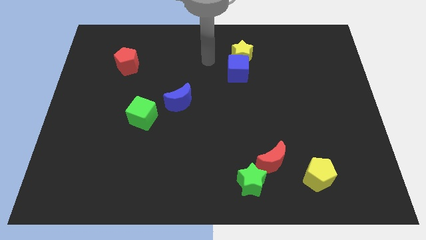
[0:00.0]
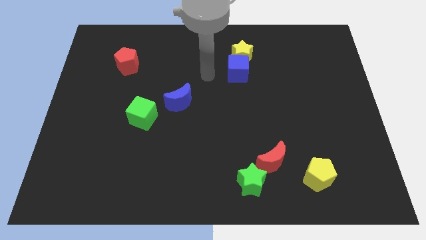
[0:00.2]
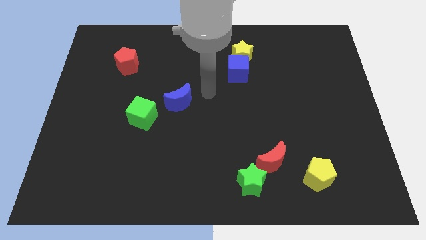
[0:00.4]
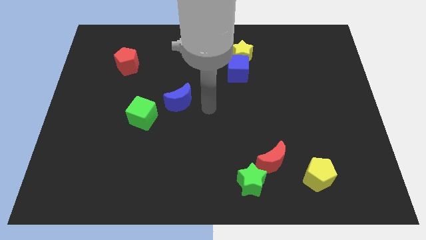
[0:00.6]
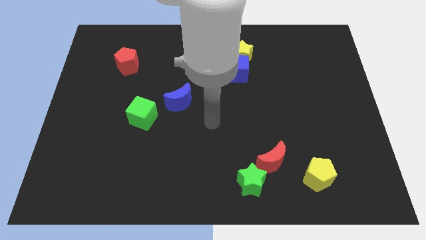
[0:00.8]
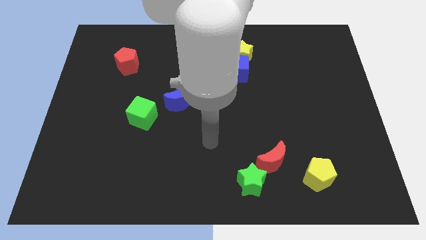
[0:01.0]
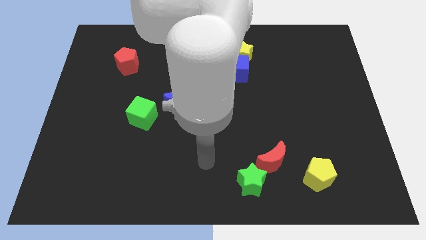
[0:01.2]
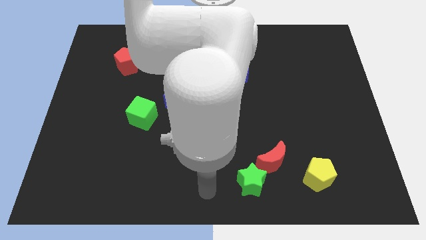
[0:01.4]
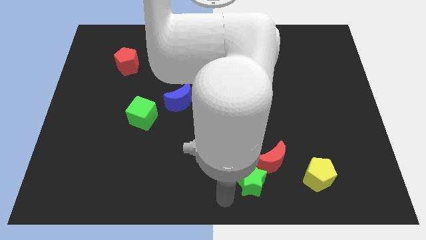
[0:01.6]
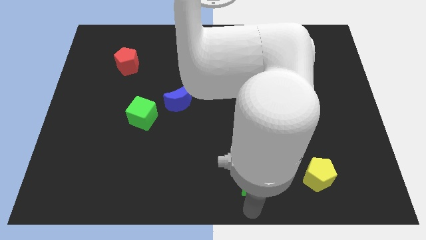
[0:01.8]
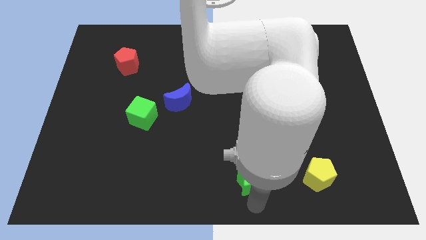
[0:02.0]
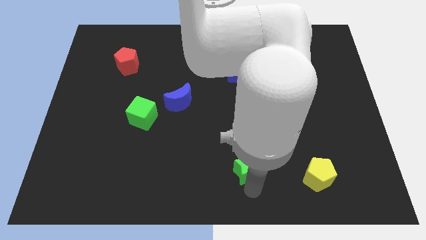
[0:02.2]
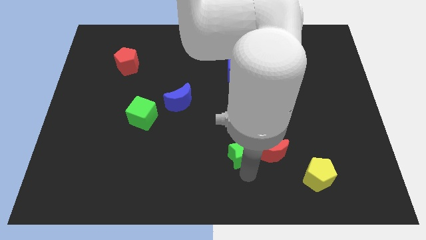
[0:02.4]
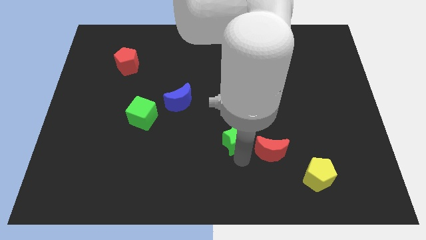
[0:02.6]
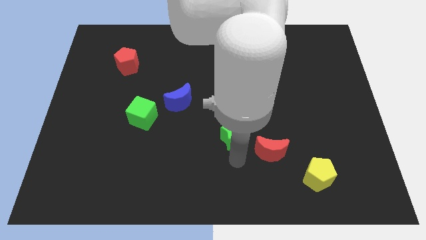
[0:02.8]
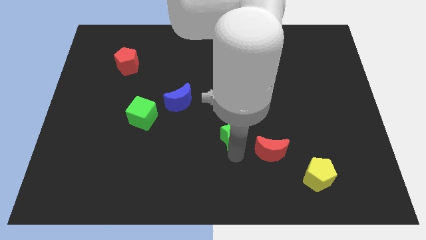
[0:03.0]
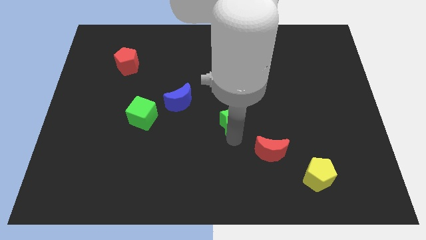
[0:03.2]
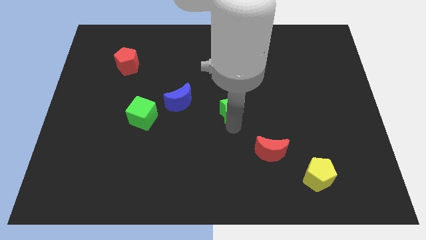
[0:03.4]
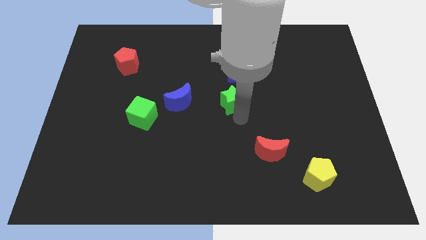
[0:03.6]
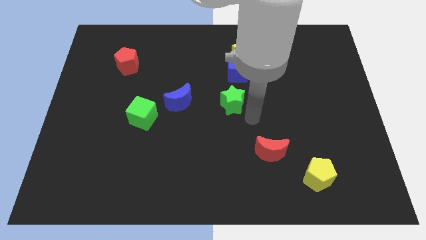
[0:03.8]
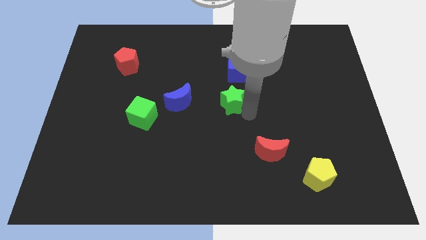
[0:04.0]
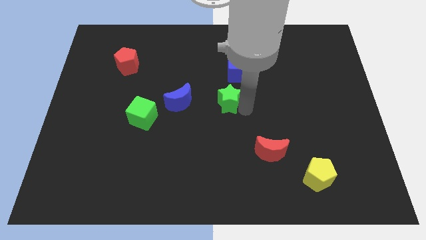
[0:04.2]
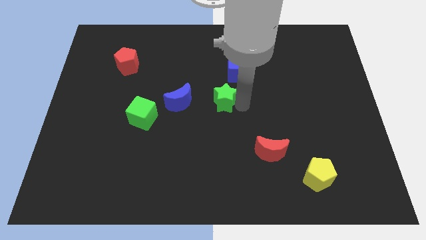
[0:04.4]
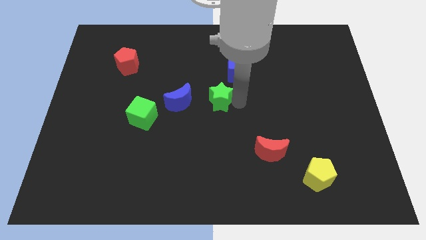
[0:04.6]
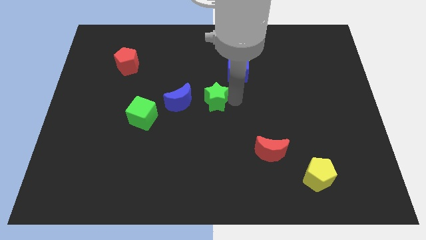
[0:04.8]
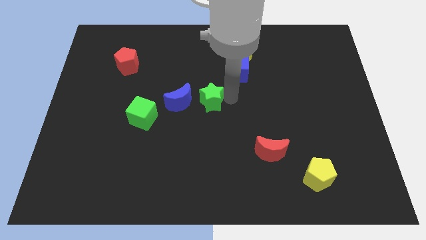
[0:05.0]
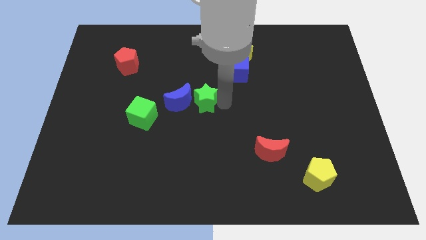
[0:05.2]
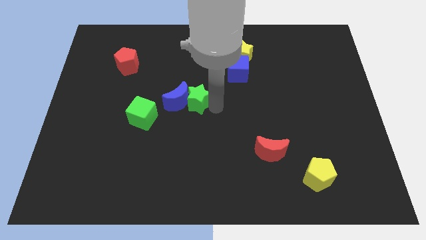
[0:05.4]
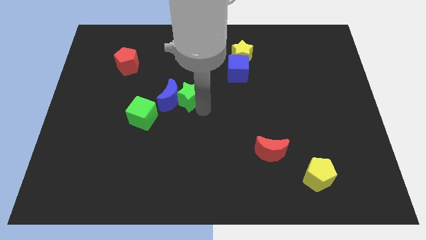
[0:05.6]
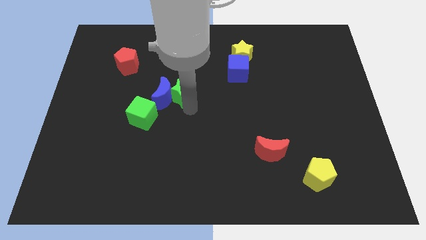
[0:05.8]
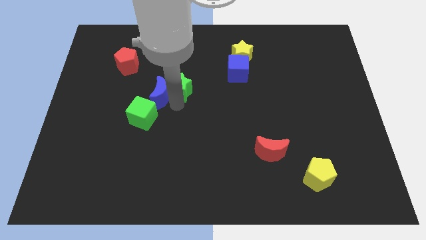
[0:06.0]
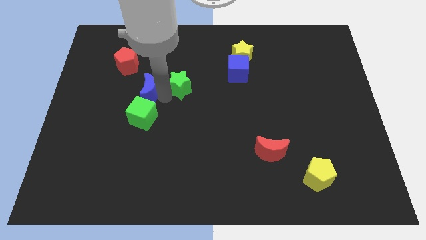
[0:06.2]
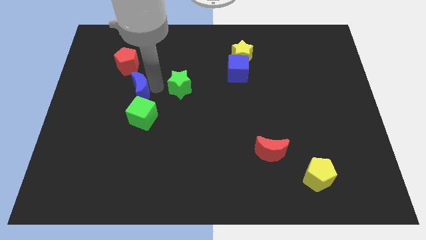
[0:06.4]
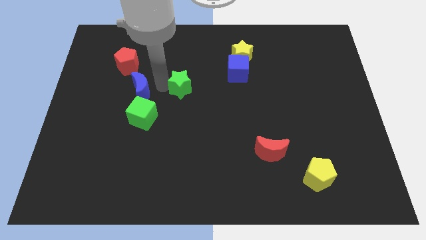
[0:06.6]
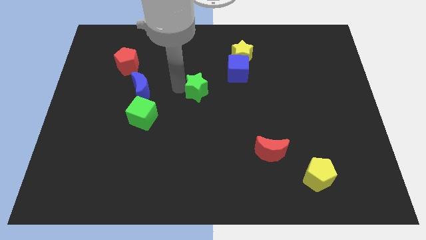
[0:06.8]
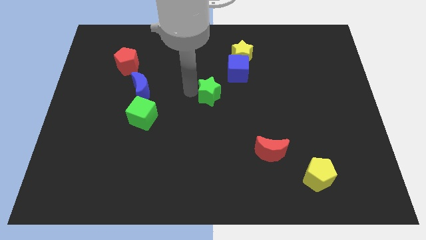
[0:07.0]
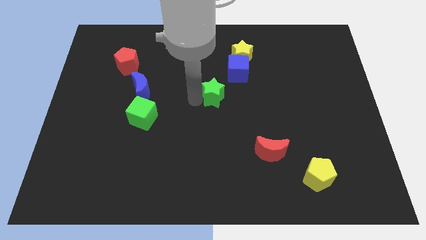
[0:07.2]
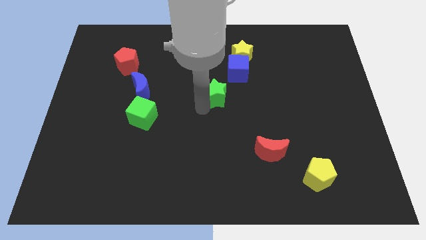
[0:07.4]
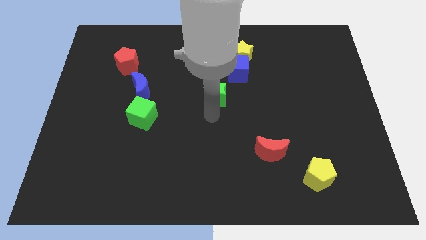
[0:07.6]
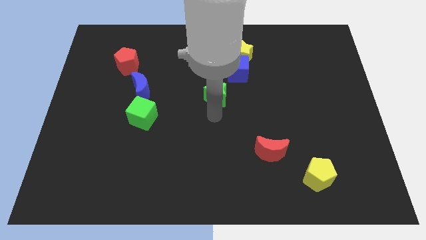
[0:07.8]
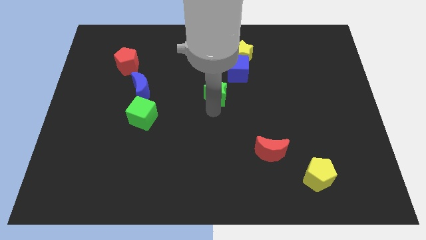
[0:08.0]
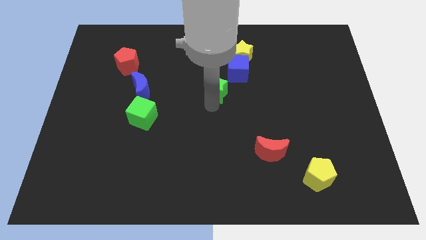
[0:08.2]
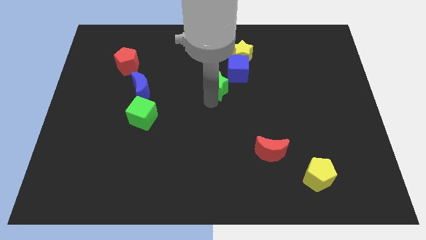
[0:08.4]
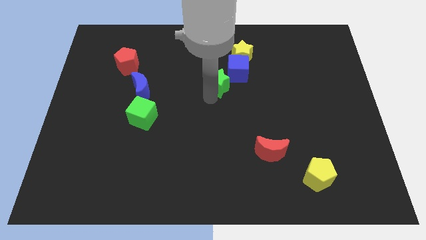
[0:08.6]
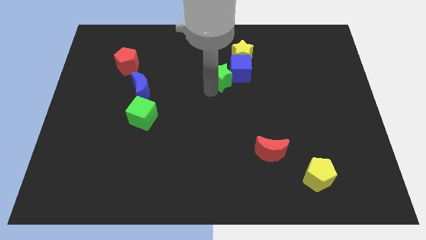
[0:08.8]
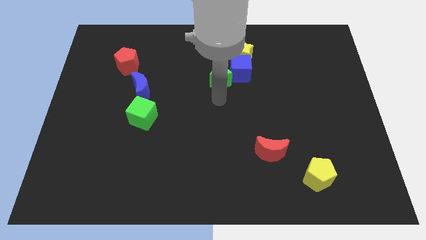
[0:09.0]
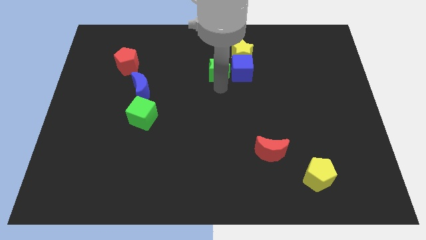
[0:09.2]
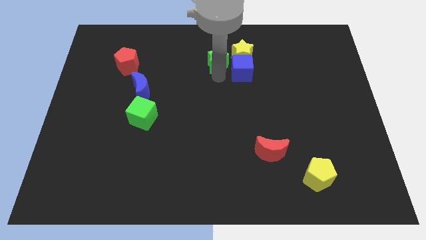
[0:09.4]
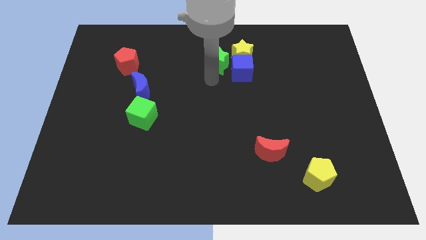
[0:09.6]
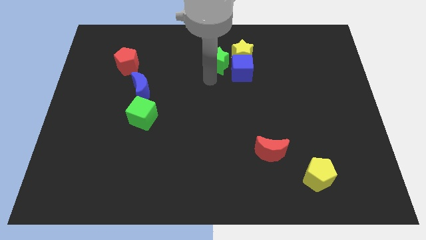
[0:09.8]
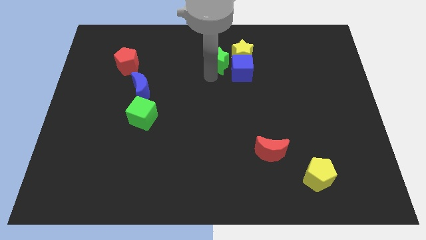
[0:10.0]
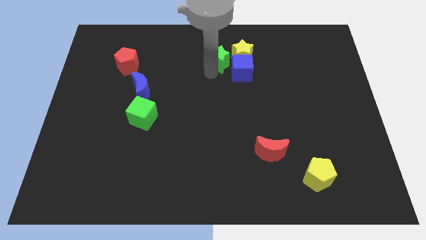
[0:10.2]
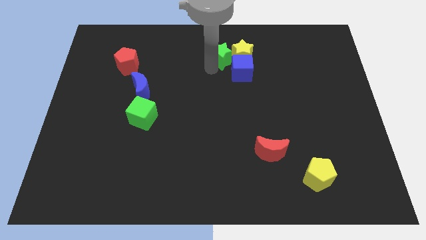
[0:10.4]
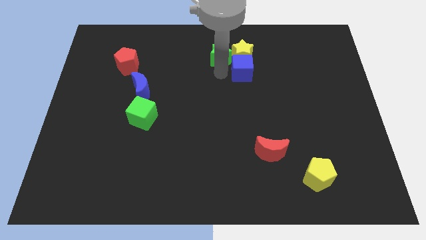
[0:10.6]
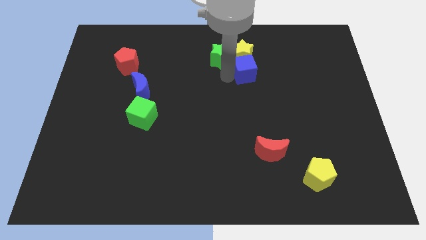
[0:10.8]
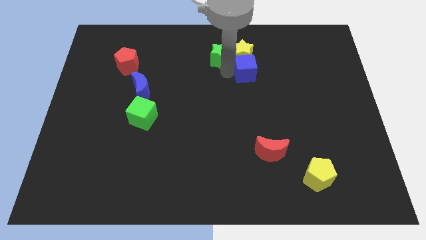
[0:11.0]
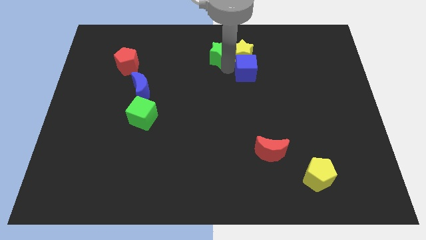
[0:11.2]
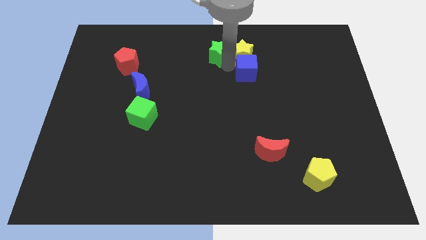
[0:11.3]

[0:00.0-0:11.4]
slide the green star to the top

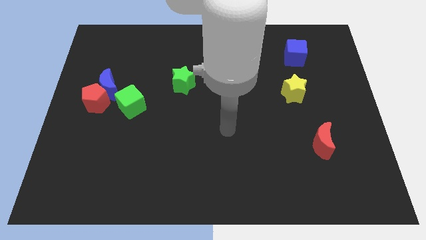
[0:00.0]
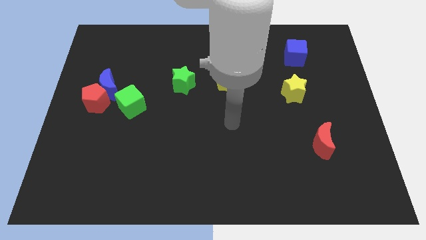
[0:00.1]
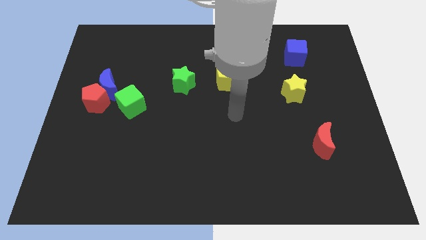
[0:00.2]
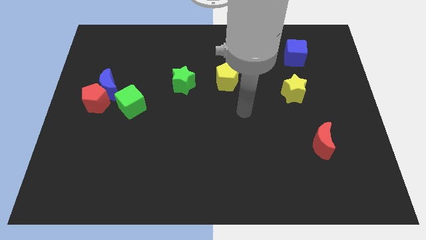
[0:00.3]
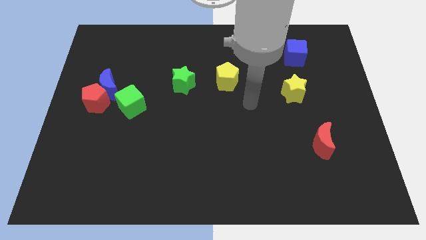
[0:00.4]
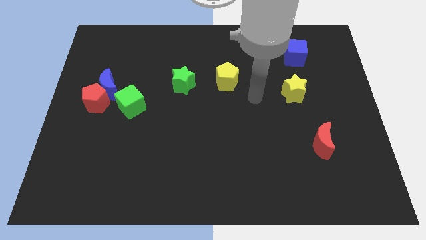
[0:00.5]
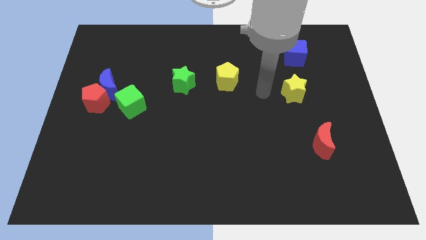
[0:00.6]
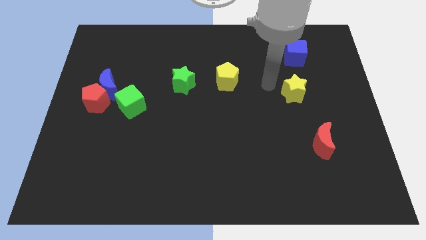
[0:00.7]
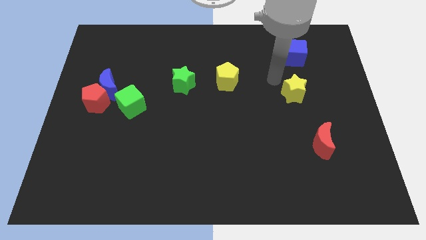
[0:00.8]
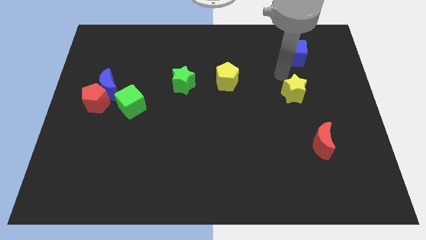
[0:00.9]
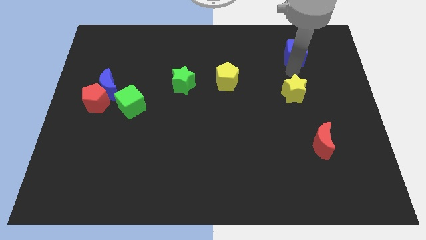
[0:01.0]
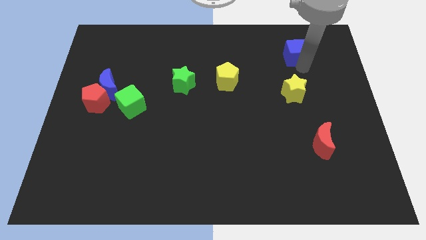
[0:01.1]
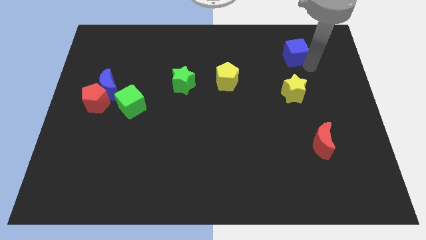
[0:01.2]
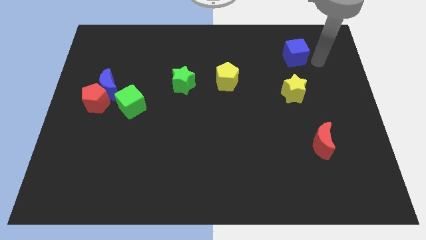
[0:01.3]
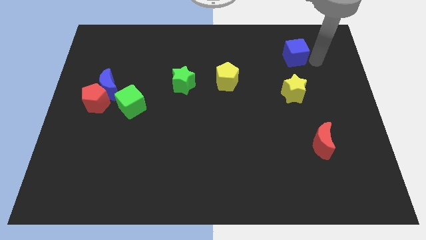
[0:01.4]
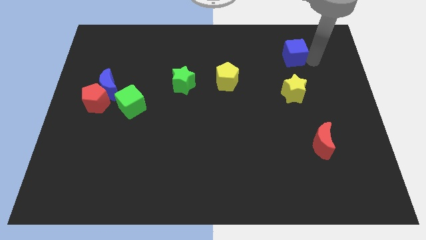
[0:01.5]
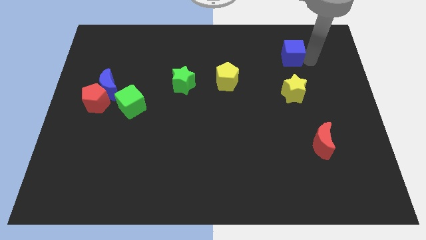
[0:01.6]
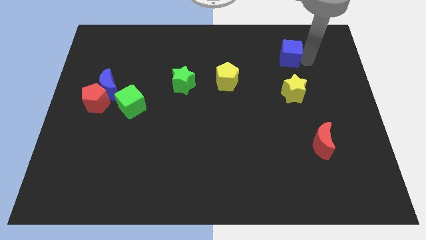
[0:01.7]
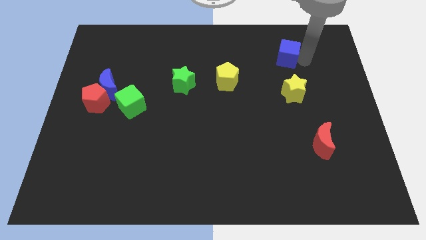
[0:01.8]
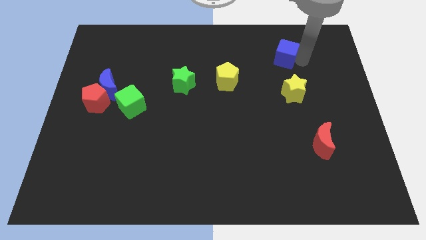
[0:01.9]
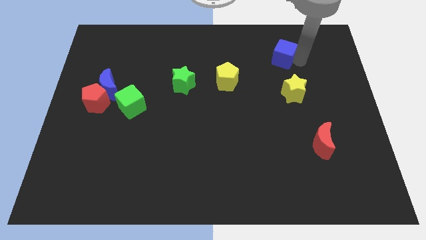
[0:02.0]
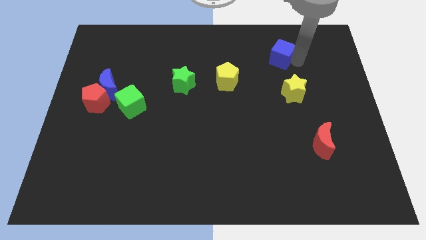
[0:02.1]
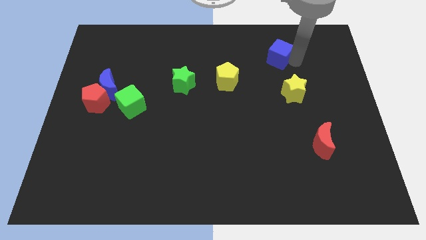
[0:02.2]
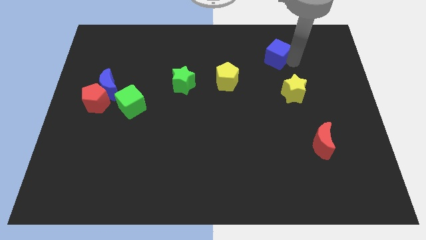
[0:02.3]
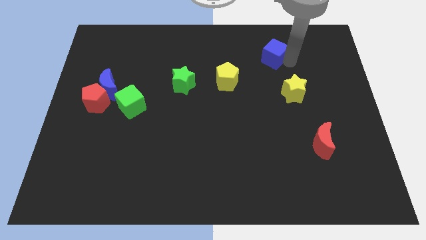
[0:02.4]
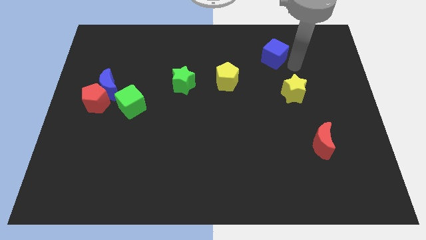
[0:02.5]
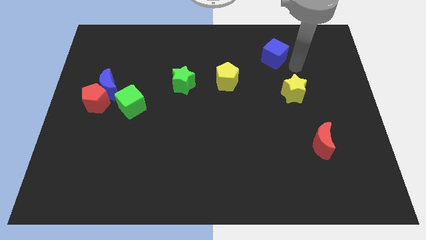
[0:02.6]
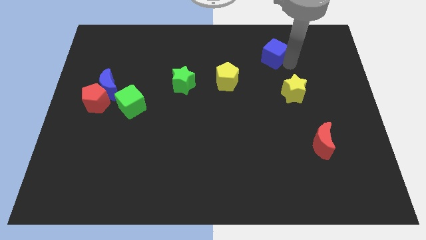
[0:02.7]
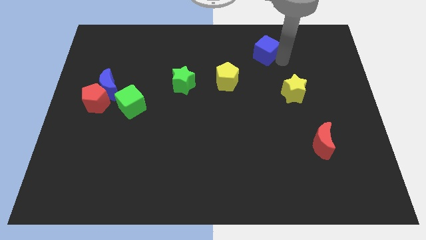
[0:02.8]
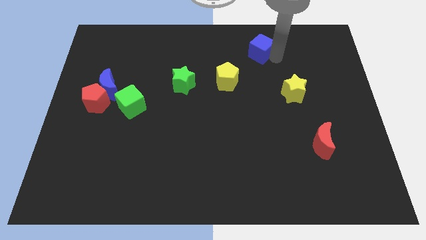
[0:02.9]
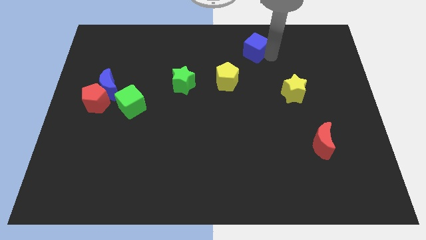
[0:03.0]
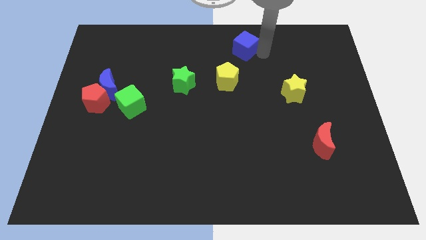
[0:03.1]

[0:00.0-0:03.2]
put the blue cube to the top
